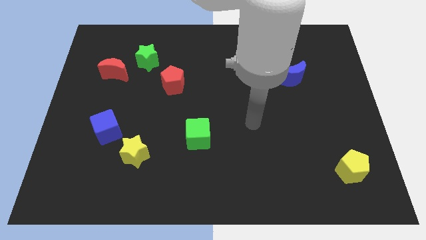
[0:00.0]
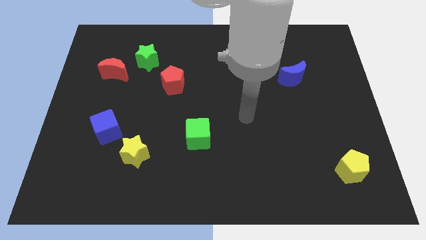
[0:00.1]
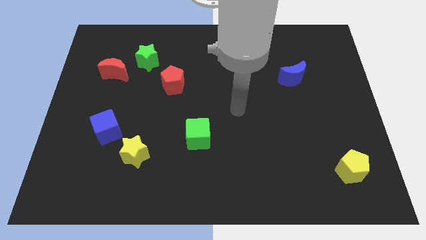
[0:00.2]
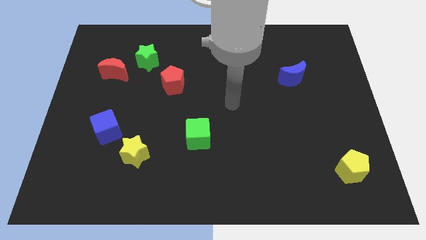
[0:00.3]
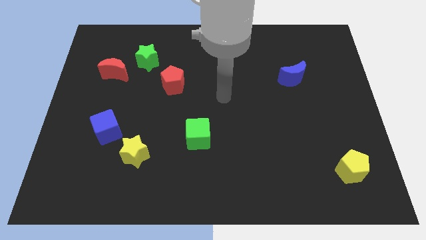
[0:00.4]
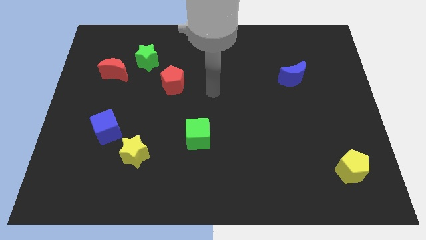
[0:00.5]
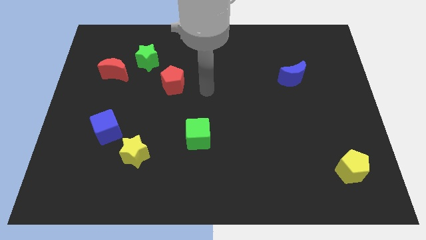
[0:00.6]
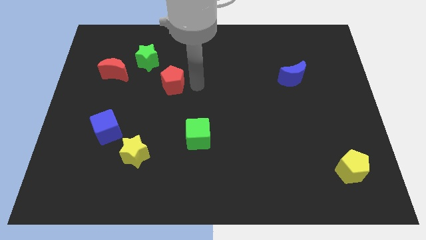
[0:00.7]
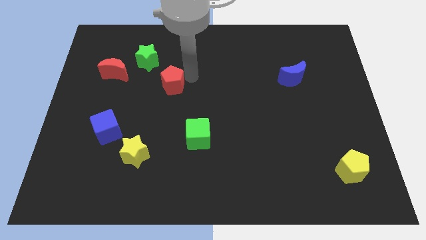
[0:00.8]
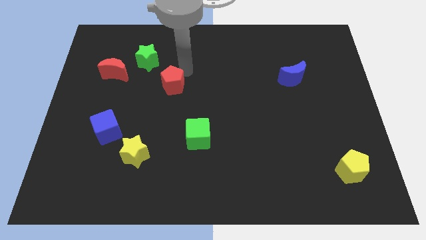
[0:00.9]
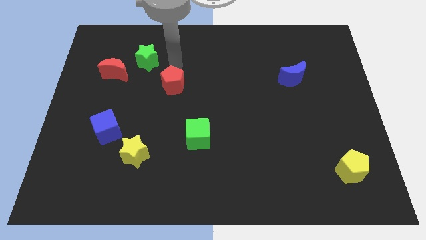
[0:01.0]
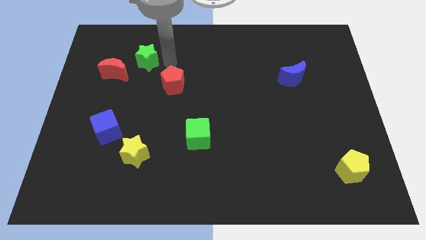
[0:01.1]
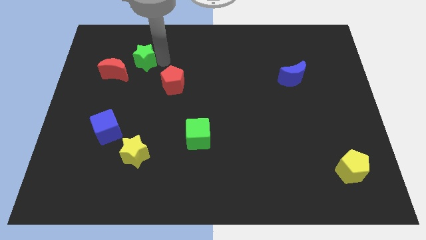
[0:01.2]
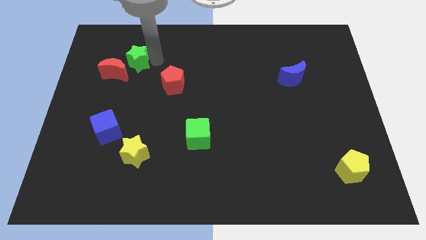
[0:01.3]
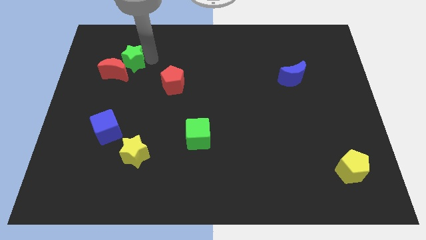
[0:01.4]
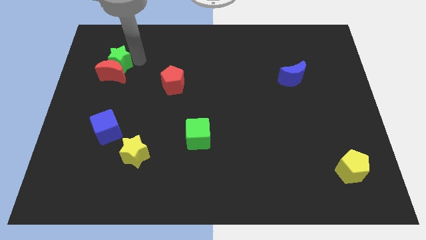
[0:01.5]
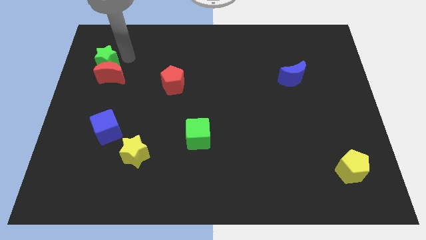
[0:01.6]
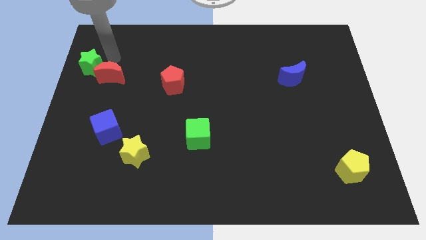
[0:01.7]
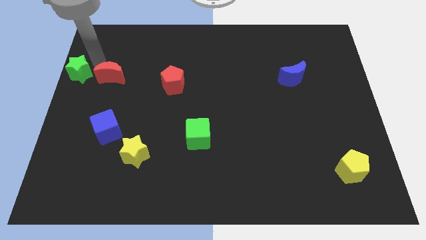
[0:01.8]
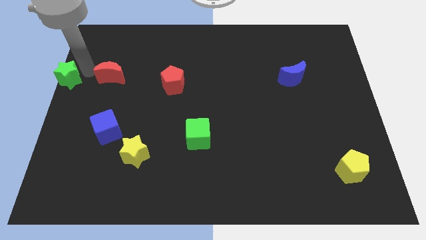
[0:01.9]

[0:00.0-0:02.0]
pull the red moon apart from the green star

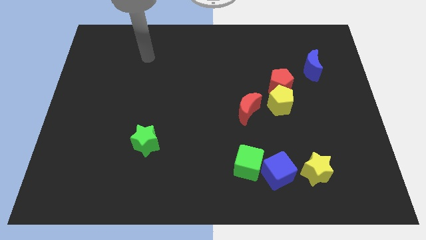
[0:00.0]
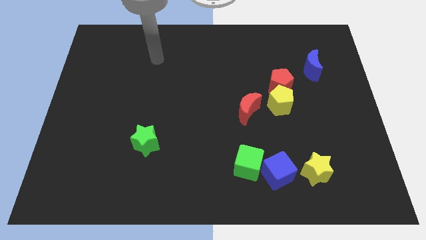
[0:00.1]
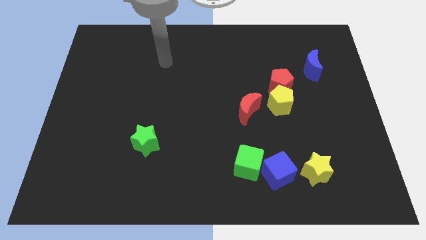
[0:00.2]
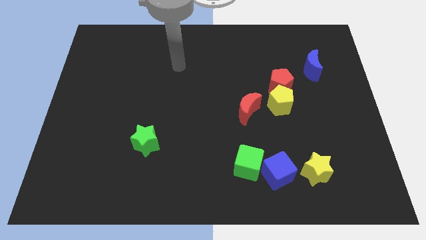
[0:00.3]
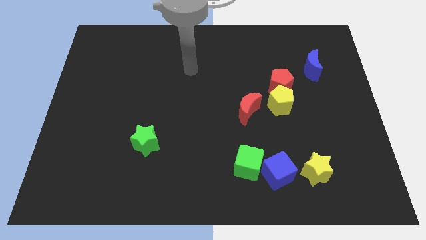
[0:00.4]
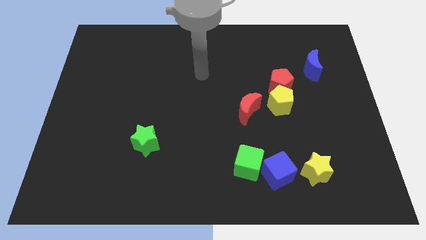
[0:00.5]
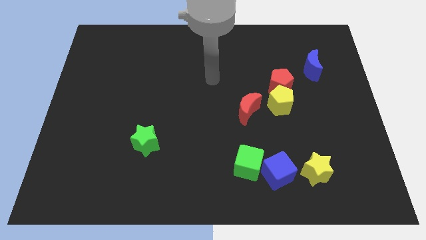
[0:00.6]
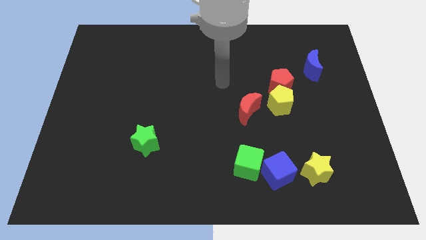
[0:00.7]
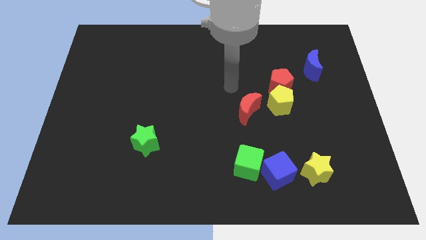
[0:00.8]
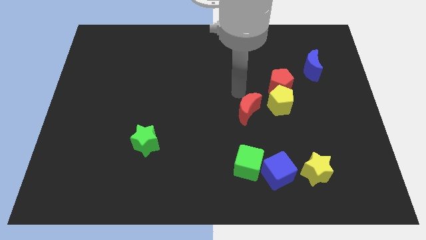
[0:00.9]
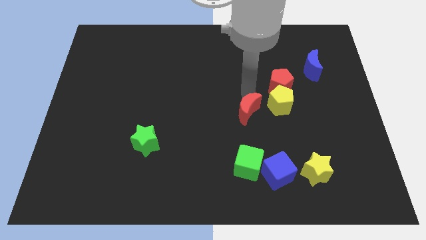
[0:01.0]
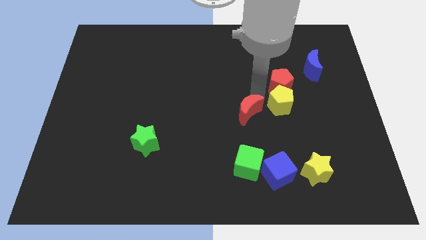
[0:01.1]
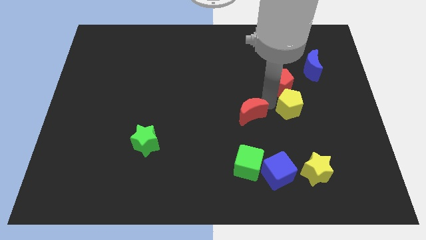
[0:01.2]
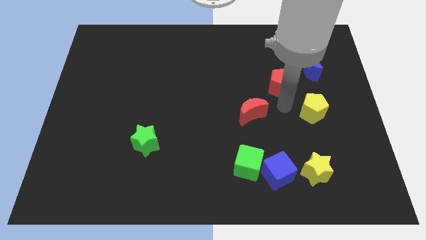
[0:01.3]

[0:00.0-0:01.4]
pull the red pentagon apart from the yellow pentagon

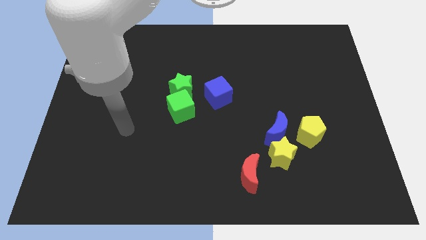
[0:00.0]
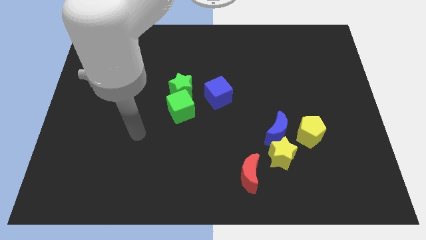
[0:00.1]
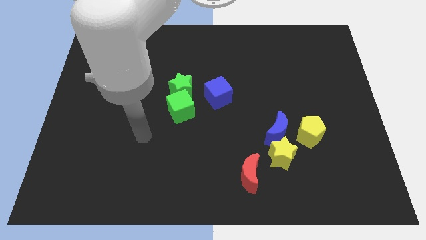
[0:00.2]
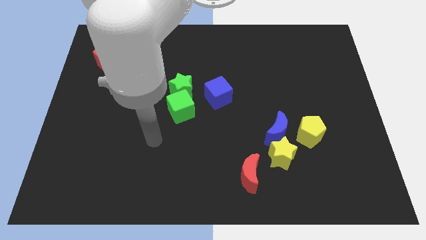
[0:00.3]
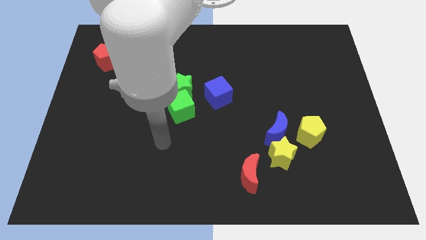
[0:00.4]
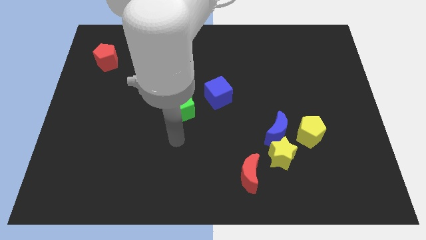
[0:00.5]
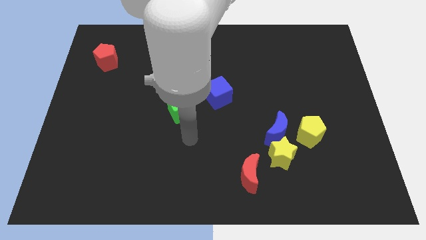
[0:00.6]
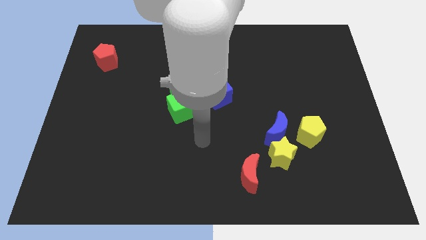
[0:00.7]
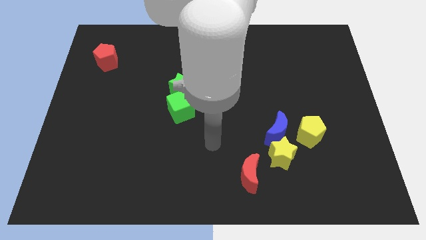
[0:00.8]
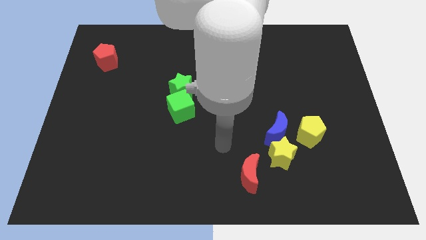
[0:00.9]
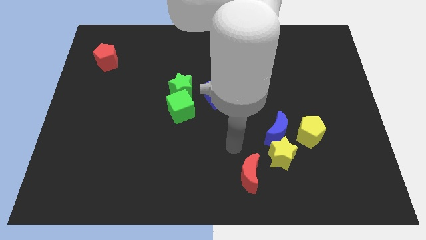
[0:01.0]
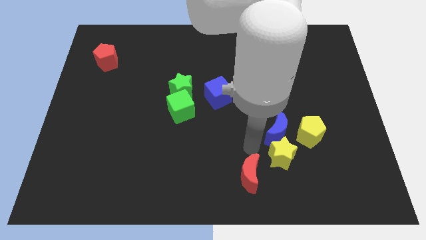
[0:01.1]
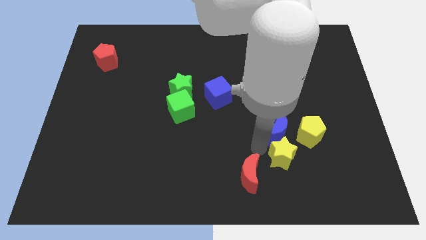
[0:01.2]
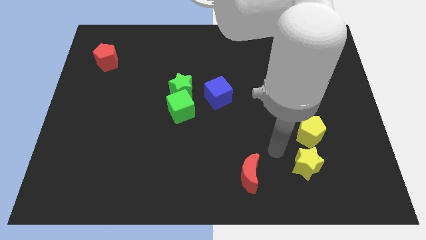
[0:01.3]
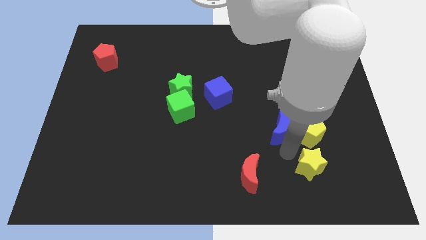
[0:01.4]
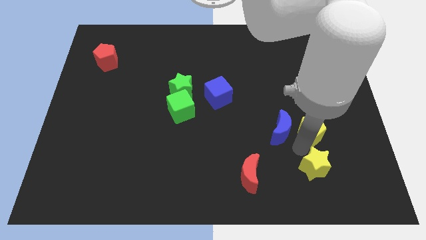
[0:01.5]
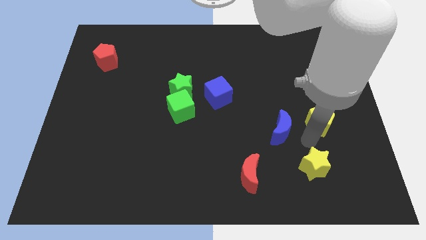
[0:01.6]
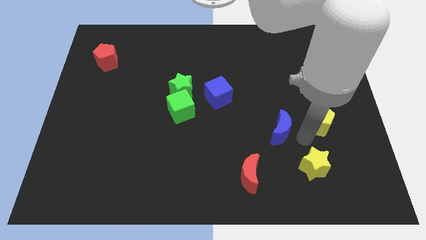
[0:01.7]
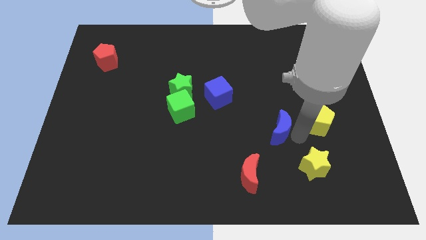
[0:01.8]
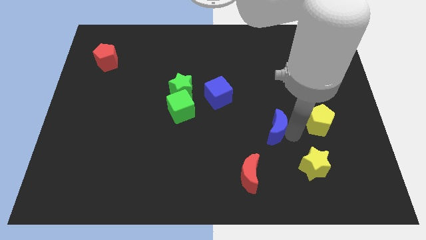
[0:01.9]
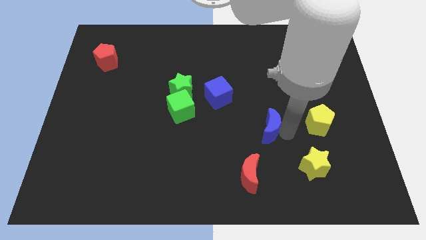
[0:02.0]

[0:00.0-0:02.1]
separate the blue moon from the yellow star and yellow pentagon

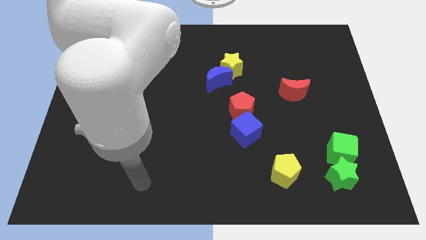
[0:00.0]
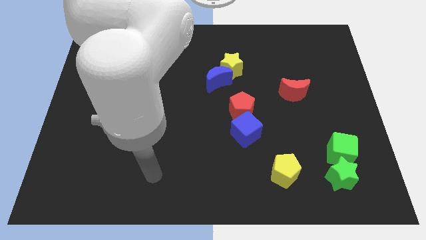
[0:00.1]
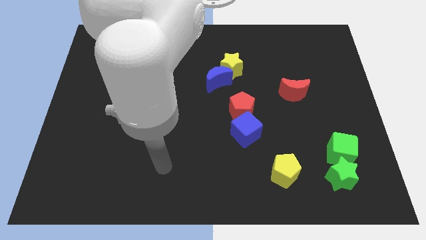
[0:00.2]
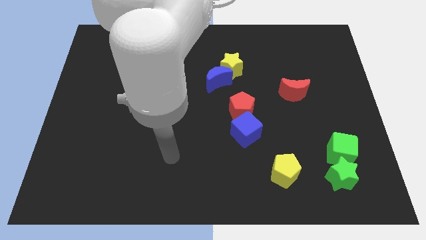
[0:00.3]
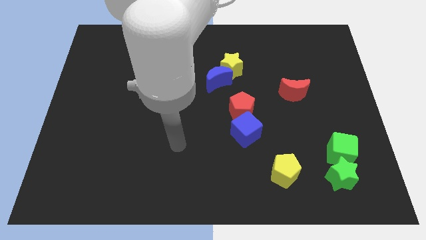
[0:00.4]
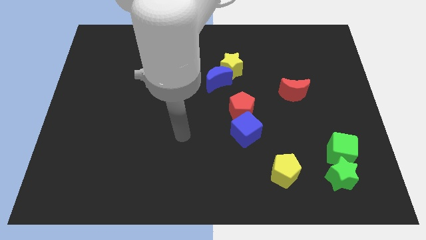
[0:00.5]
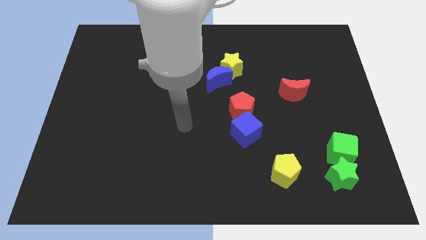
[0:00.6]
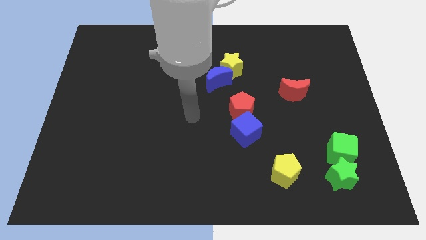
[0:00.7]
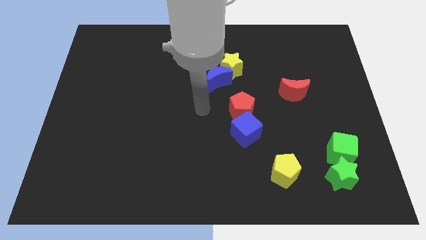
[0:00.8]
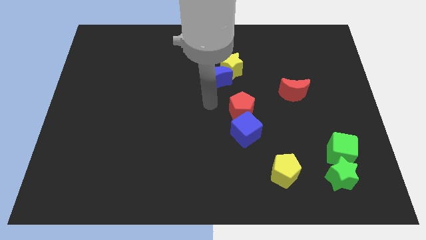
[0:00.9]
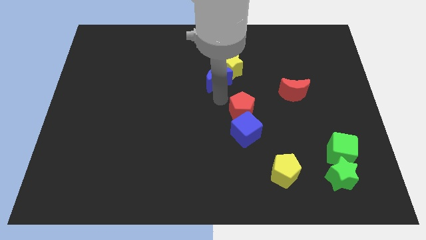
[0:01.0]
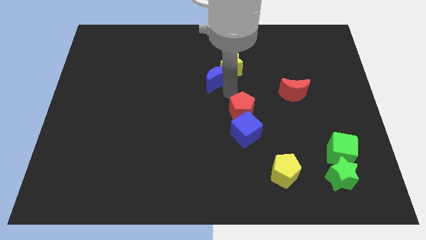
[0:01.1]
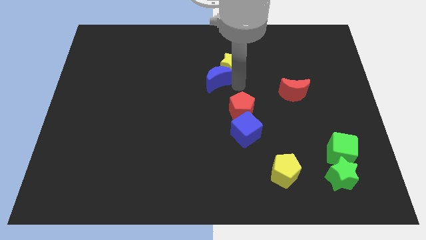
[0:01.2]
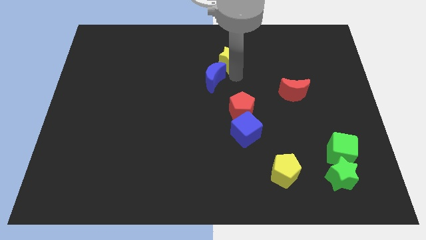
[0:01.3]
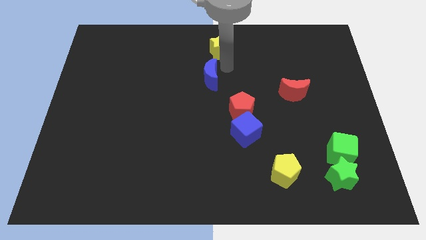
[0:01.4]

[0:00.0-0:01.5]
separate the blue moon from the yellow star

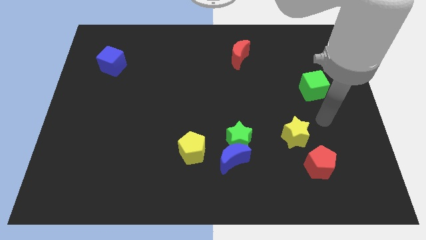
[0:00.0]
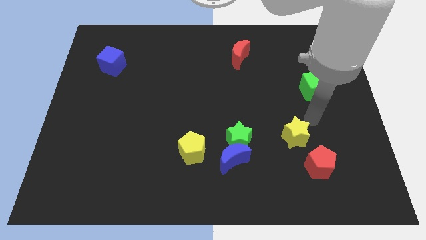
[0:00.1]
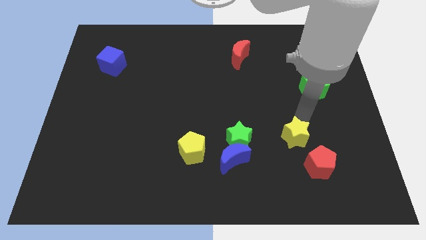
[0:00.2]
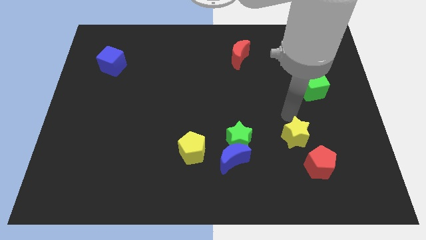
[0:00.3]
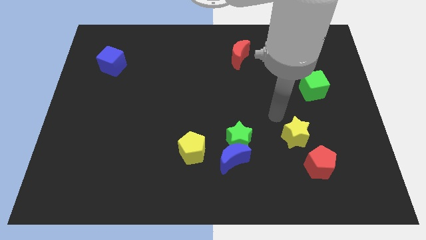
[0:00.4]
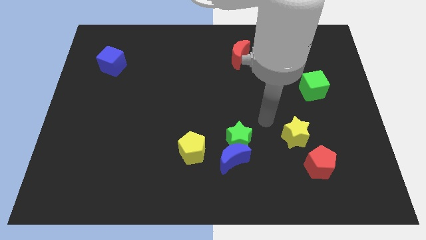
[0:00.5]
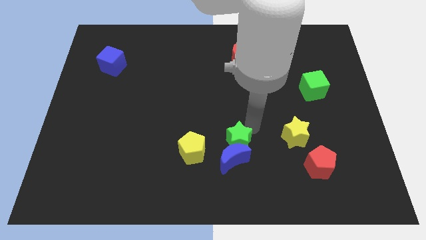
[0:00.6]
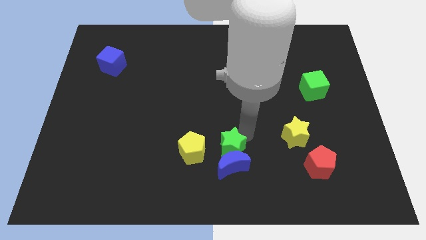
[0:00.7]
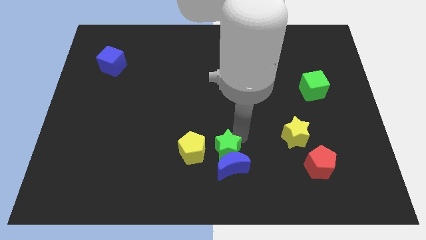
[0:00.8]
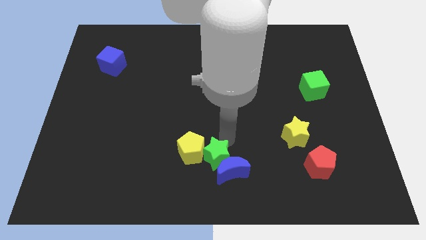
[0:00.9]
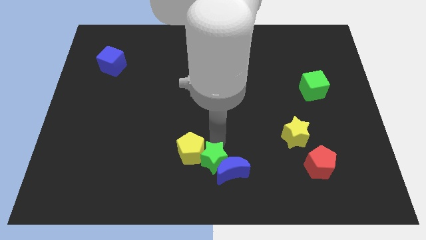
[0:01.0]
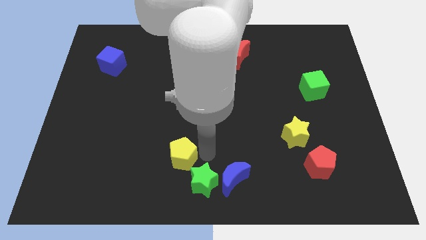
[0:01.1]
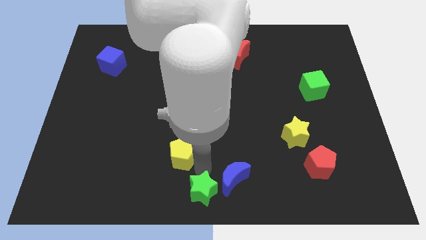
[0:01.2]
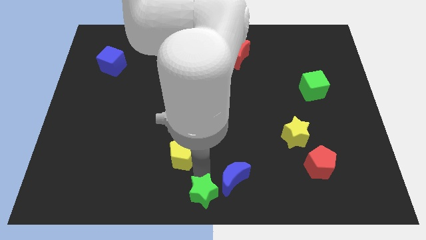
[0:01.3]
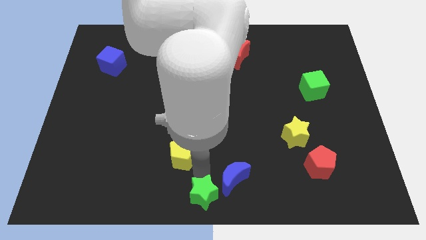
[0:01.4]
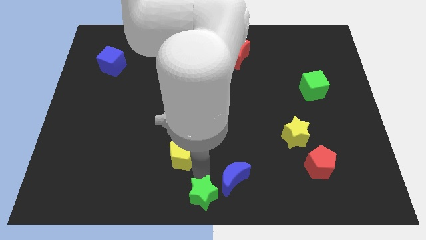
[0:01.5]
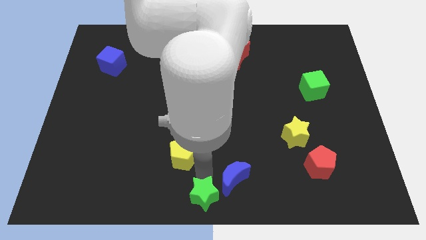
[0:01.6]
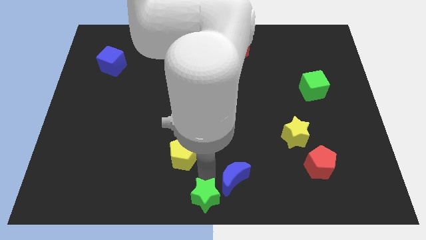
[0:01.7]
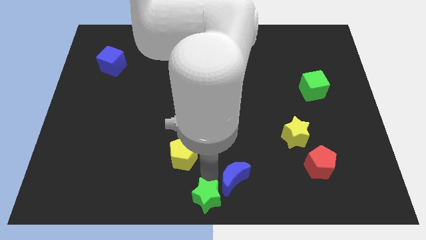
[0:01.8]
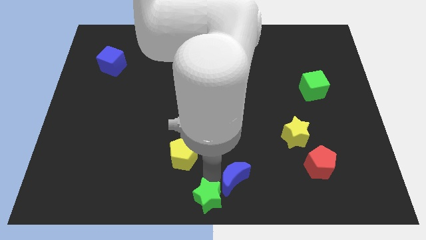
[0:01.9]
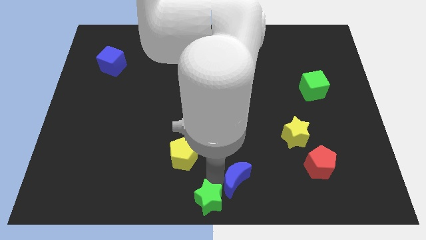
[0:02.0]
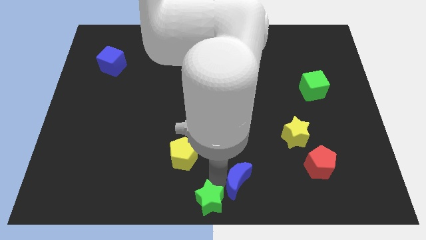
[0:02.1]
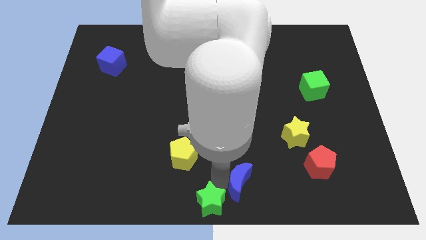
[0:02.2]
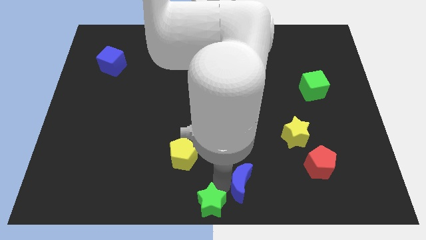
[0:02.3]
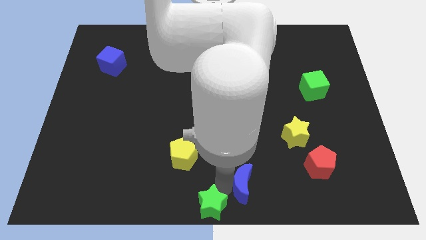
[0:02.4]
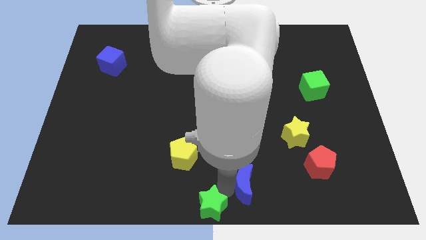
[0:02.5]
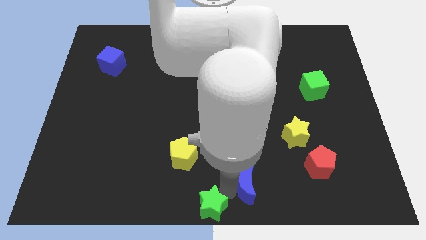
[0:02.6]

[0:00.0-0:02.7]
separate the blue moon from the green star and yellow pentagon
